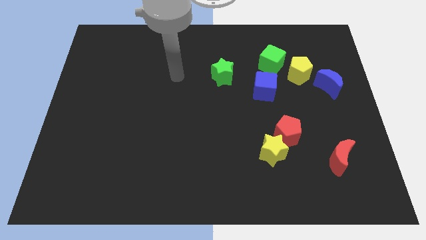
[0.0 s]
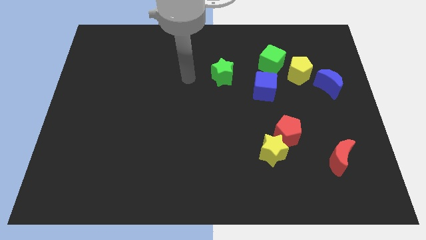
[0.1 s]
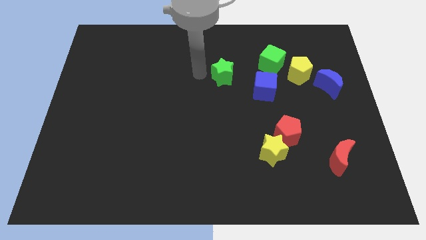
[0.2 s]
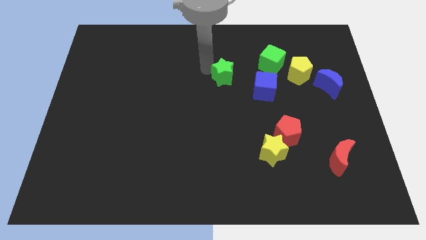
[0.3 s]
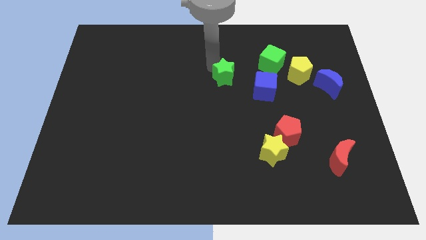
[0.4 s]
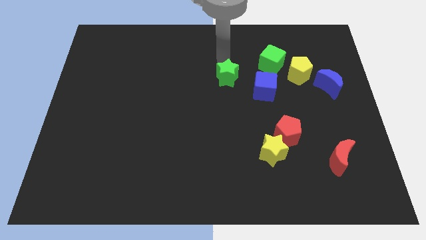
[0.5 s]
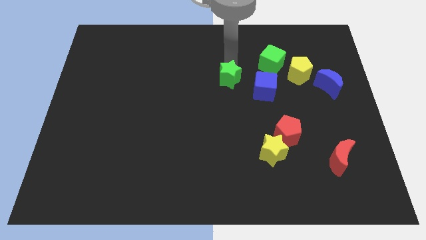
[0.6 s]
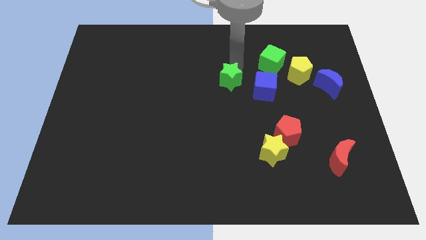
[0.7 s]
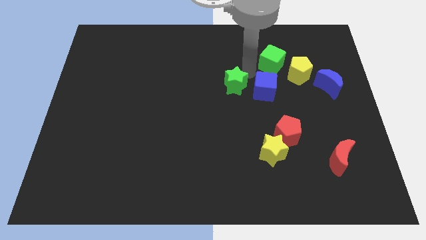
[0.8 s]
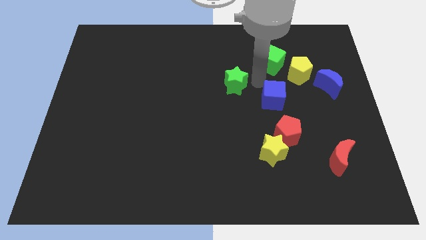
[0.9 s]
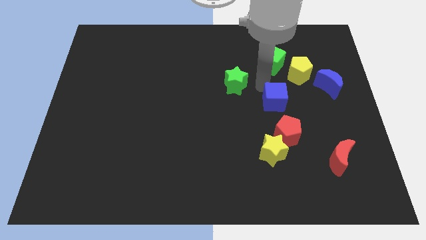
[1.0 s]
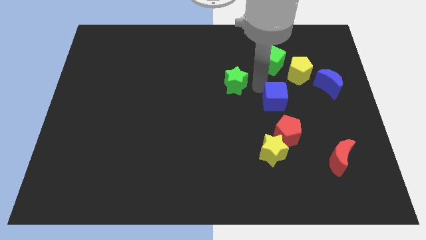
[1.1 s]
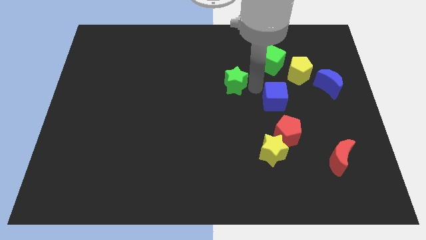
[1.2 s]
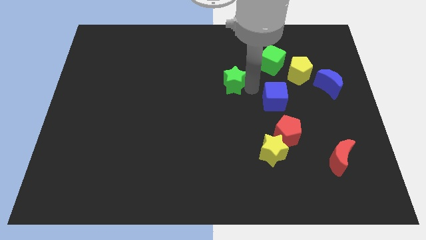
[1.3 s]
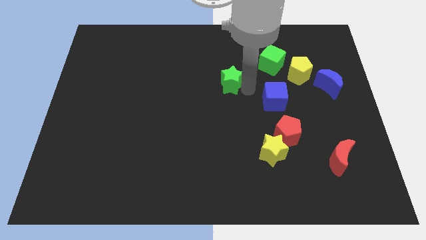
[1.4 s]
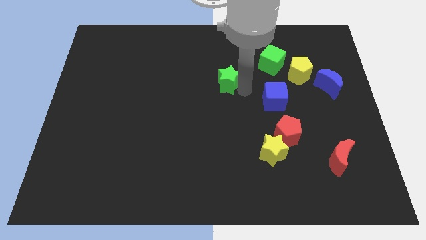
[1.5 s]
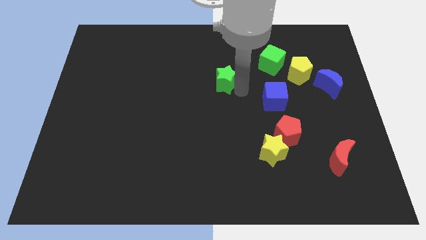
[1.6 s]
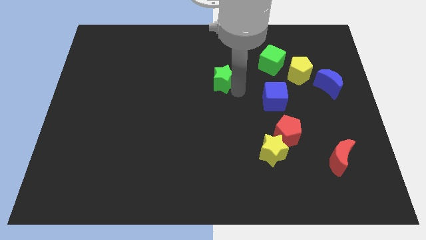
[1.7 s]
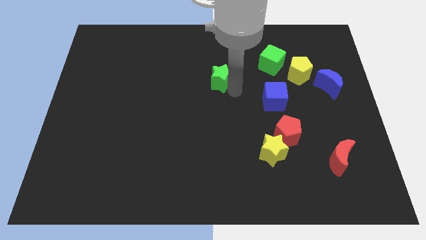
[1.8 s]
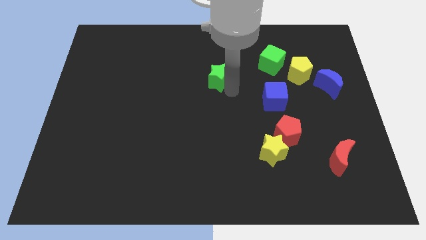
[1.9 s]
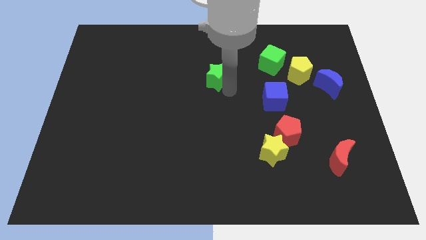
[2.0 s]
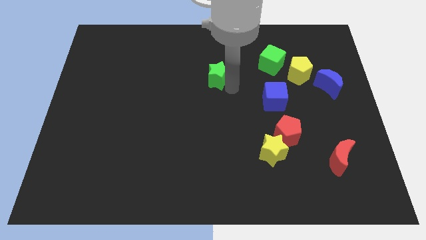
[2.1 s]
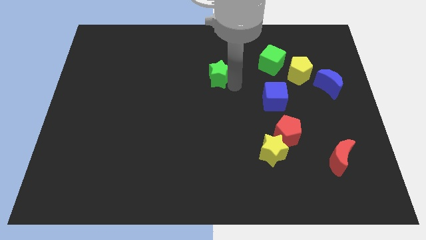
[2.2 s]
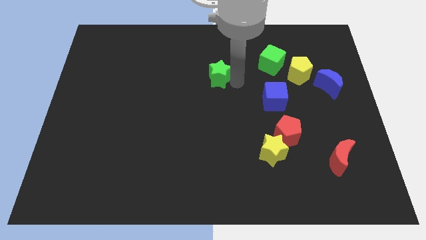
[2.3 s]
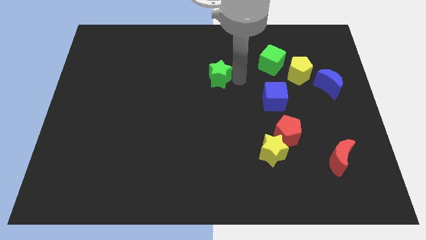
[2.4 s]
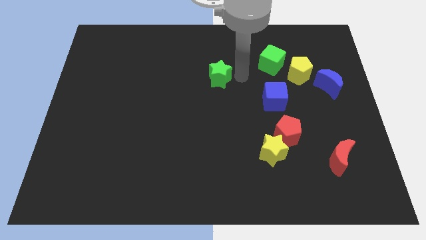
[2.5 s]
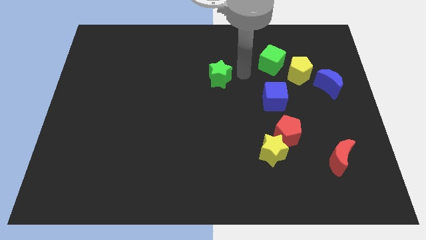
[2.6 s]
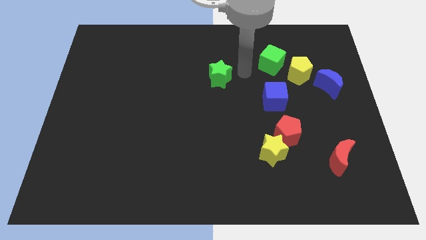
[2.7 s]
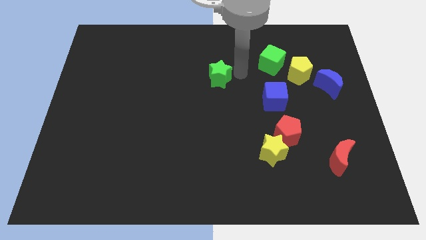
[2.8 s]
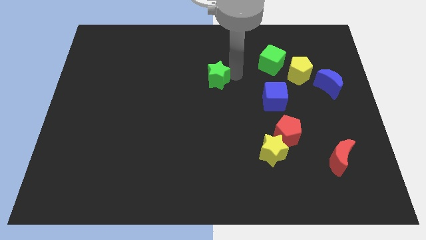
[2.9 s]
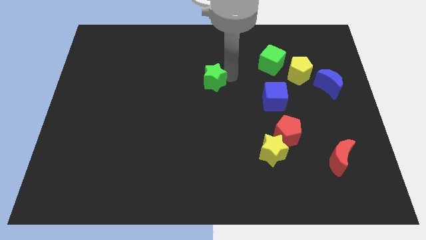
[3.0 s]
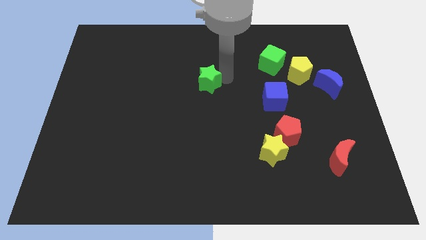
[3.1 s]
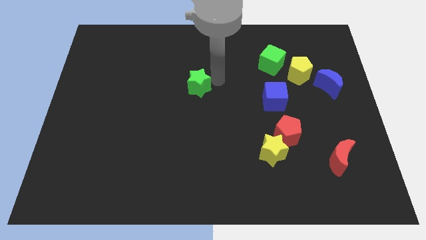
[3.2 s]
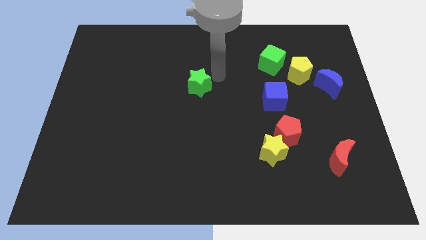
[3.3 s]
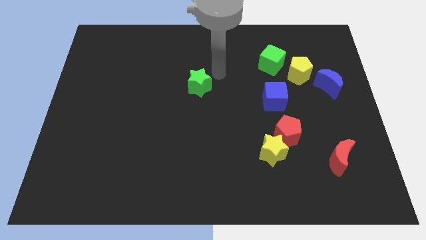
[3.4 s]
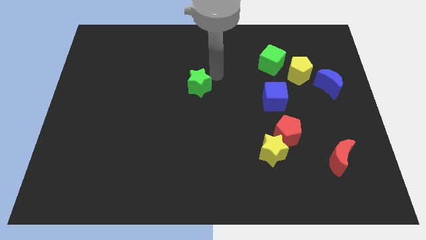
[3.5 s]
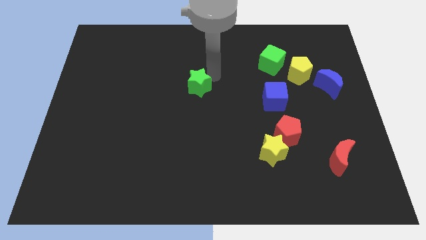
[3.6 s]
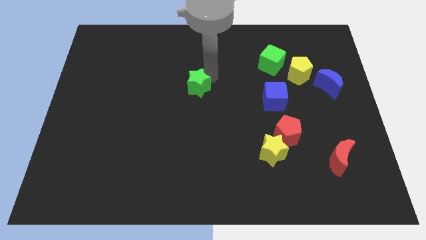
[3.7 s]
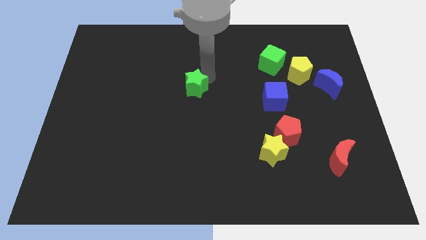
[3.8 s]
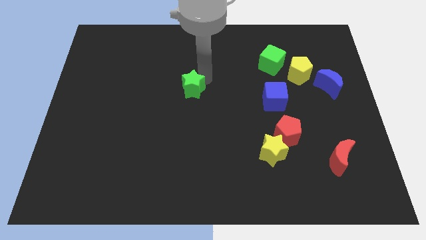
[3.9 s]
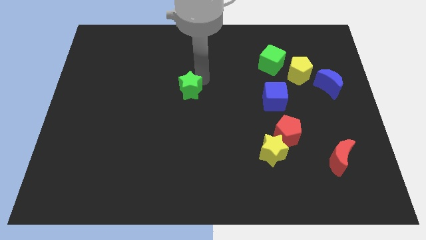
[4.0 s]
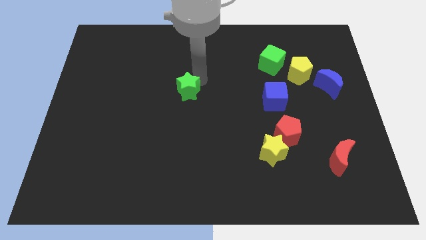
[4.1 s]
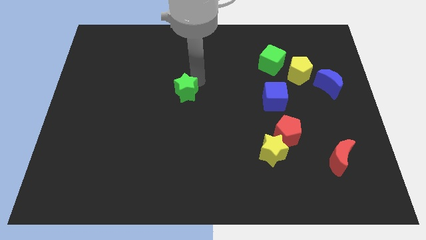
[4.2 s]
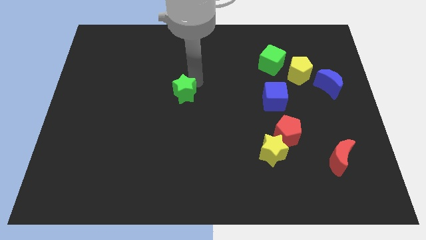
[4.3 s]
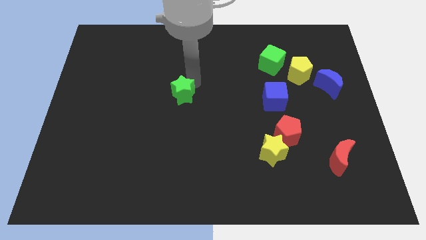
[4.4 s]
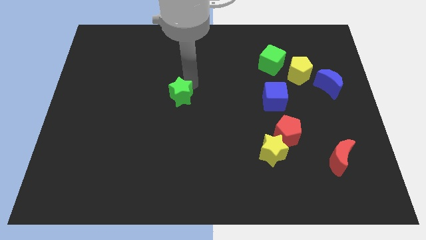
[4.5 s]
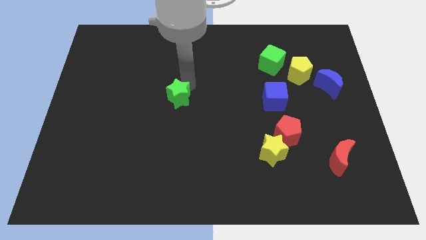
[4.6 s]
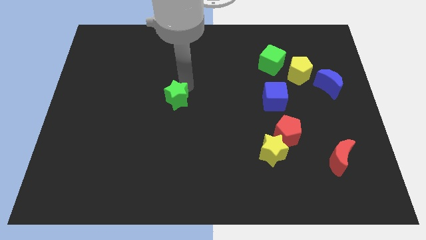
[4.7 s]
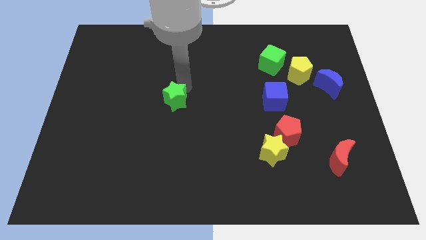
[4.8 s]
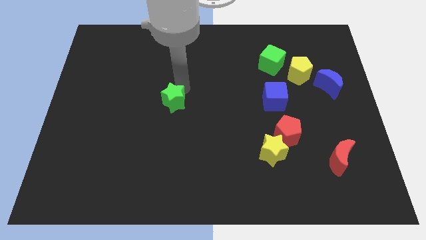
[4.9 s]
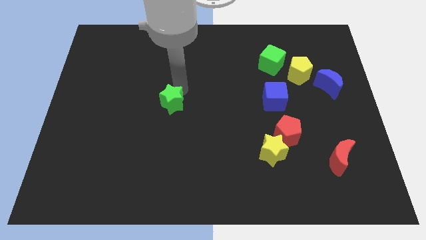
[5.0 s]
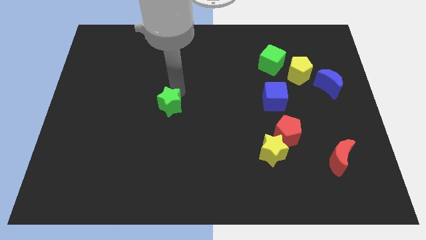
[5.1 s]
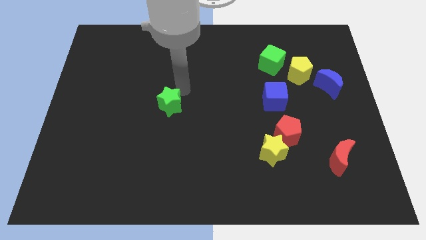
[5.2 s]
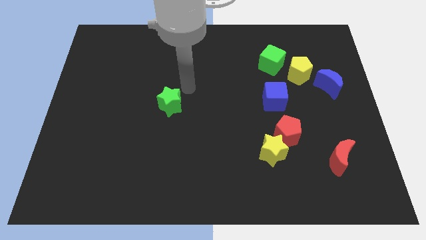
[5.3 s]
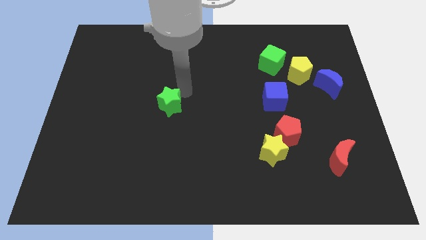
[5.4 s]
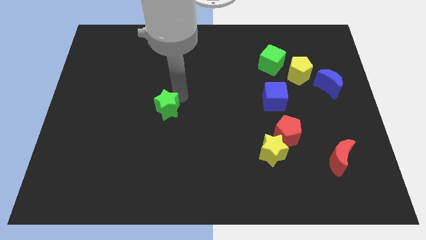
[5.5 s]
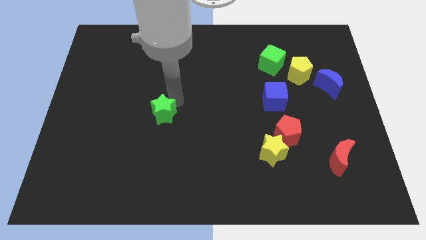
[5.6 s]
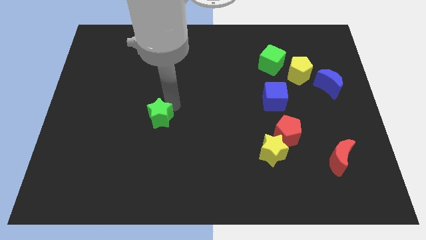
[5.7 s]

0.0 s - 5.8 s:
move the green star down and to the left diagonally

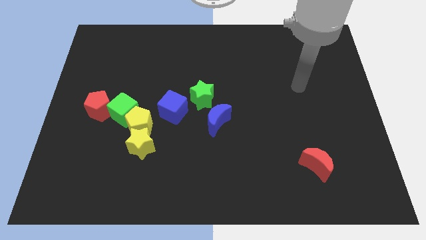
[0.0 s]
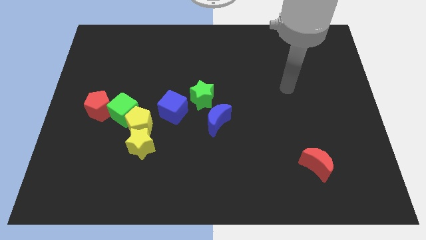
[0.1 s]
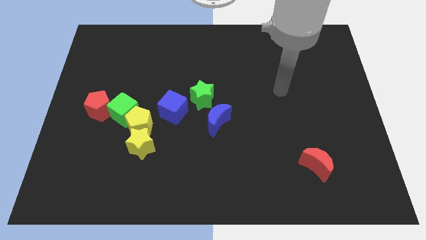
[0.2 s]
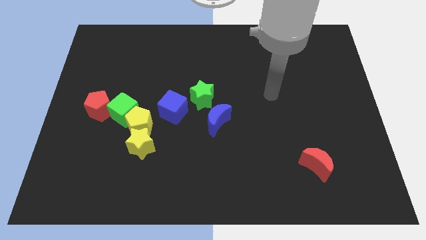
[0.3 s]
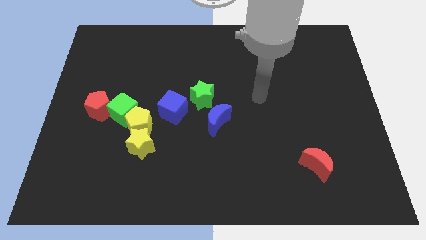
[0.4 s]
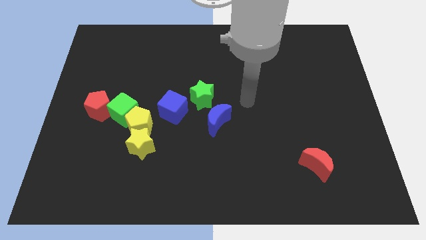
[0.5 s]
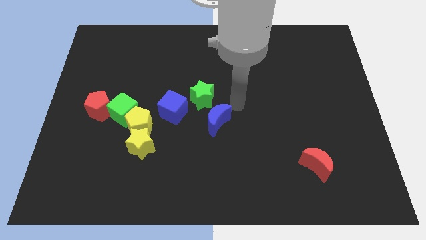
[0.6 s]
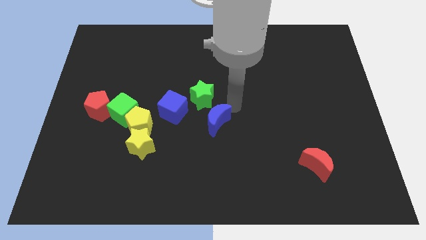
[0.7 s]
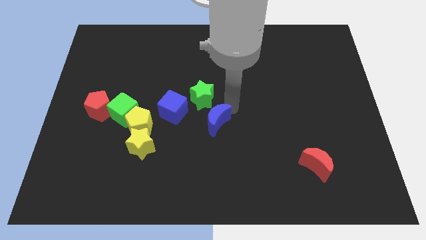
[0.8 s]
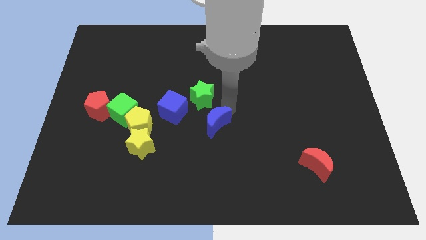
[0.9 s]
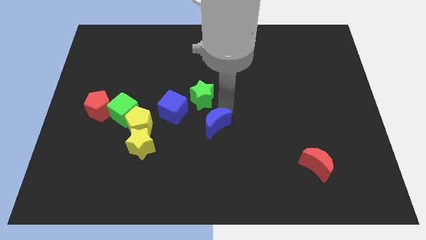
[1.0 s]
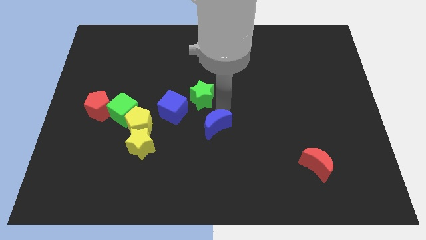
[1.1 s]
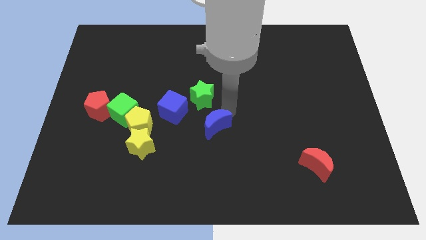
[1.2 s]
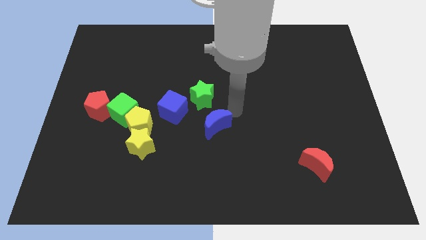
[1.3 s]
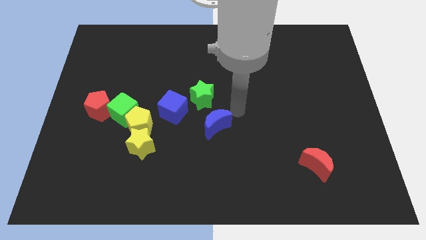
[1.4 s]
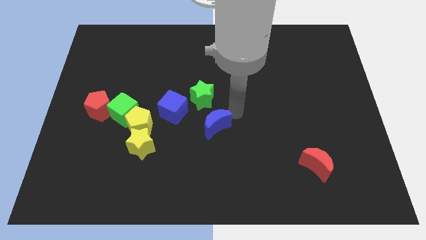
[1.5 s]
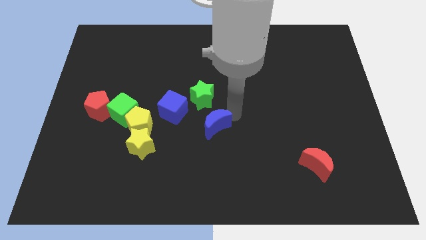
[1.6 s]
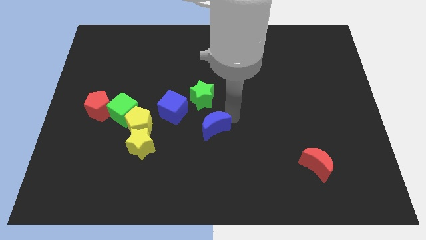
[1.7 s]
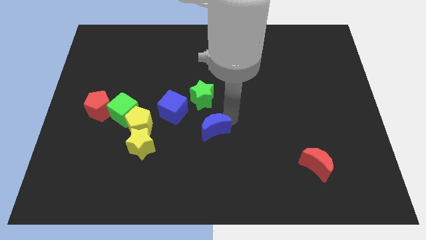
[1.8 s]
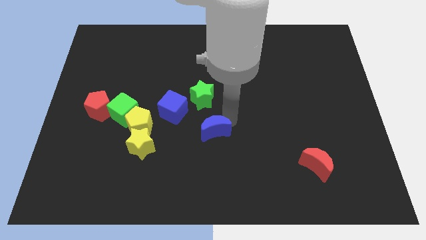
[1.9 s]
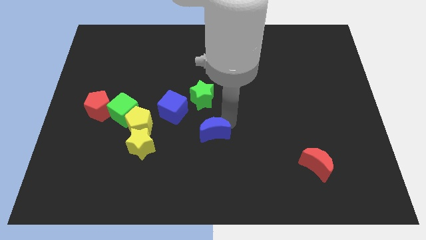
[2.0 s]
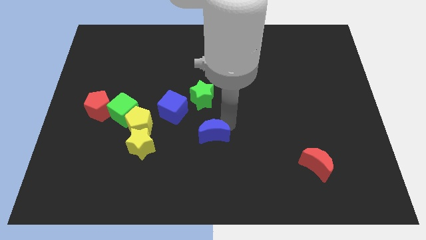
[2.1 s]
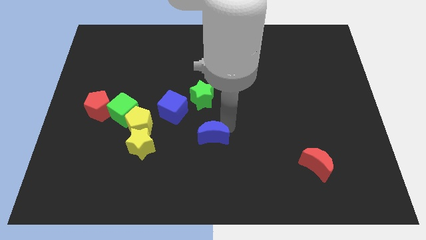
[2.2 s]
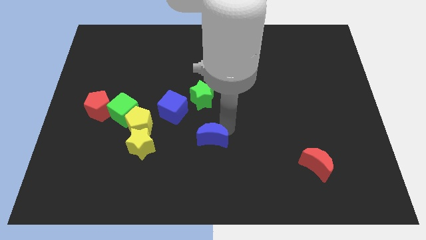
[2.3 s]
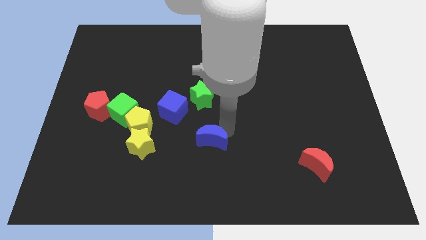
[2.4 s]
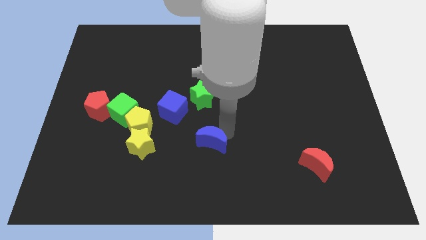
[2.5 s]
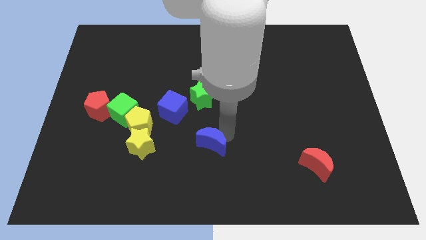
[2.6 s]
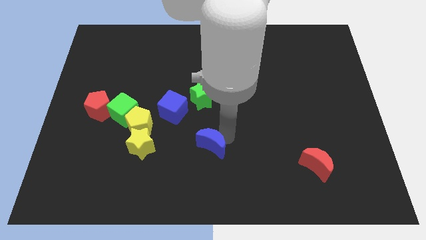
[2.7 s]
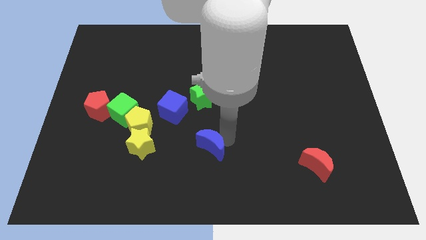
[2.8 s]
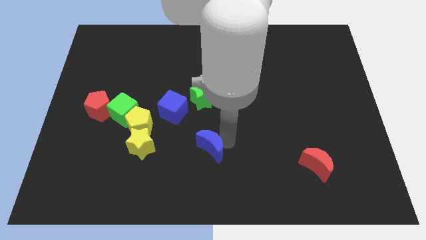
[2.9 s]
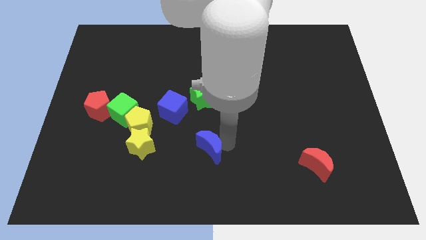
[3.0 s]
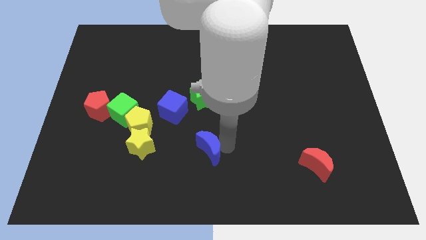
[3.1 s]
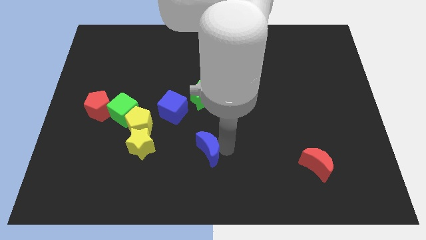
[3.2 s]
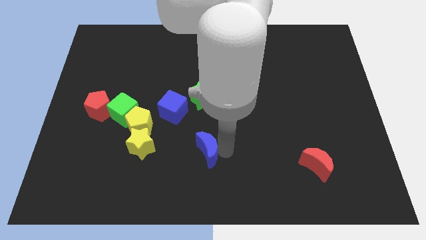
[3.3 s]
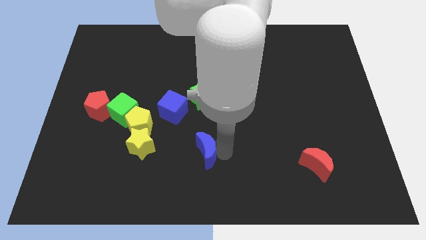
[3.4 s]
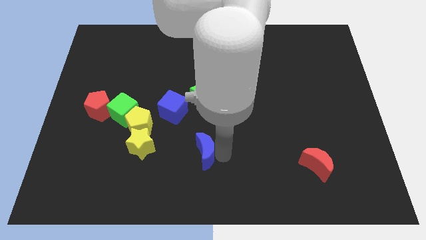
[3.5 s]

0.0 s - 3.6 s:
push the blue moon downwards and left diagonally a bit
